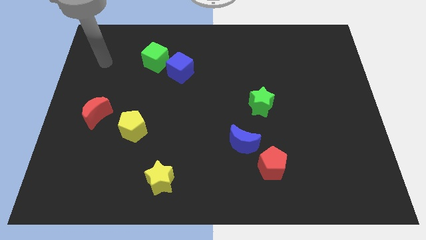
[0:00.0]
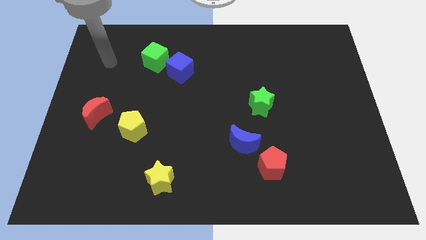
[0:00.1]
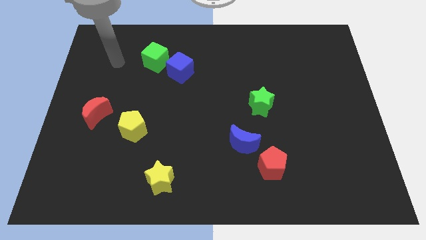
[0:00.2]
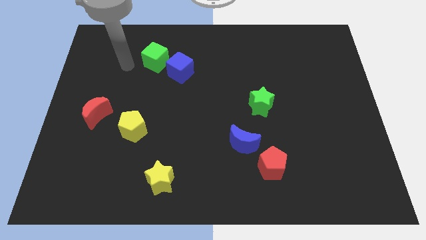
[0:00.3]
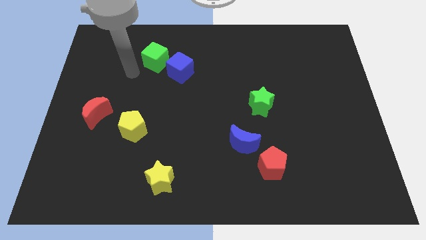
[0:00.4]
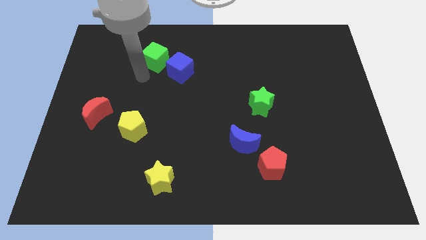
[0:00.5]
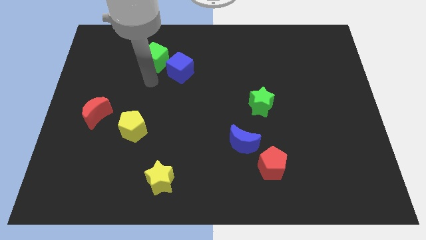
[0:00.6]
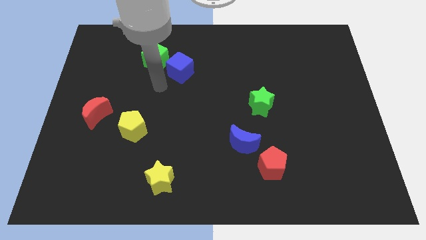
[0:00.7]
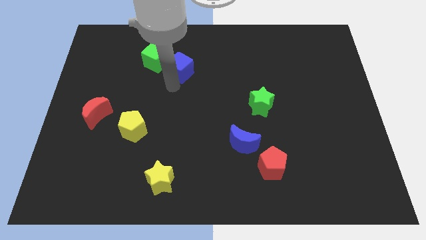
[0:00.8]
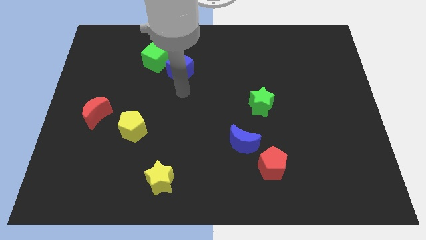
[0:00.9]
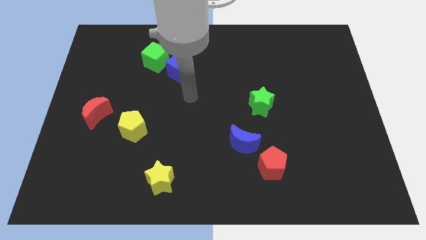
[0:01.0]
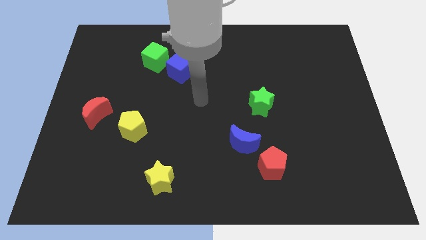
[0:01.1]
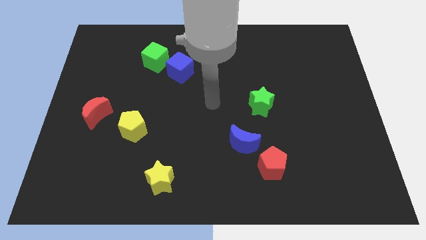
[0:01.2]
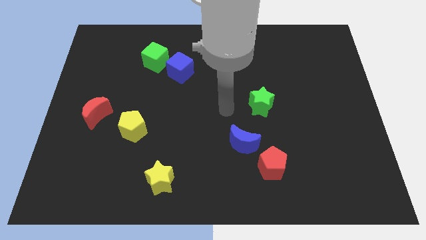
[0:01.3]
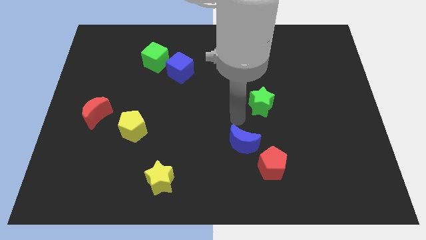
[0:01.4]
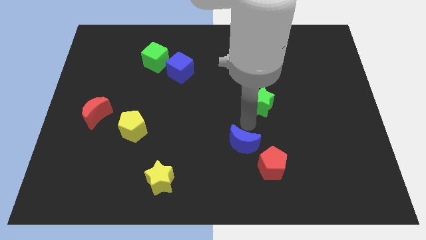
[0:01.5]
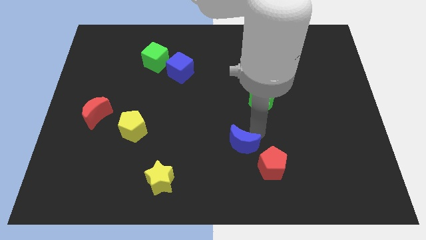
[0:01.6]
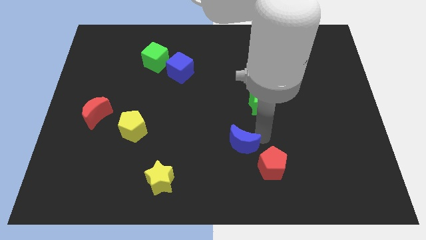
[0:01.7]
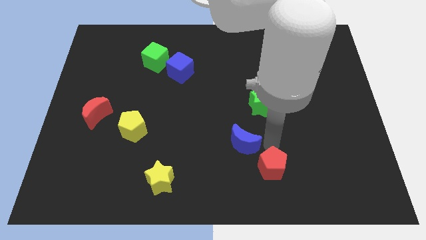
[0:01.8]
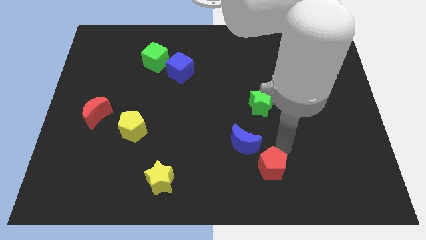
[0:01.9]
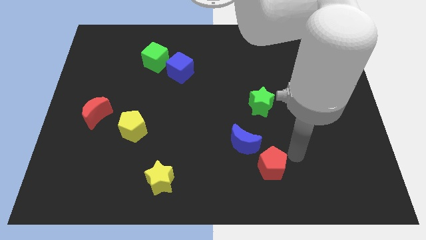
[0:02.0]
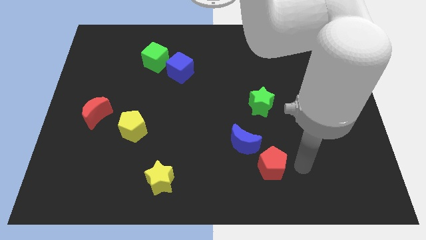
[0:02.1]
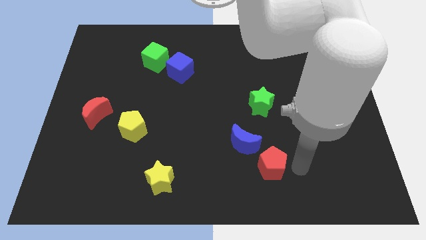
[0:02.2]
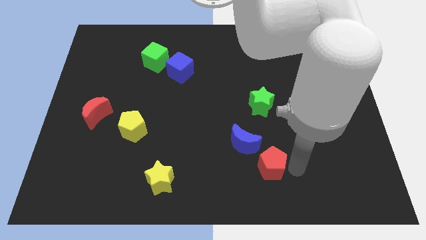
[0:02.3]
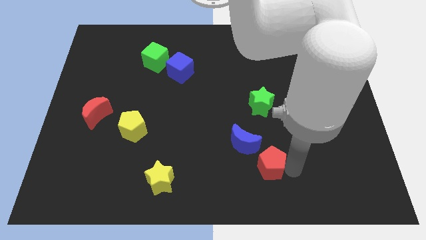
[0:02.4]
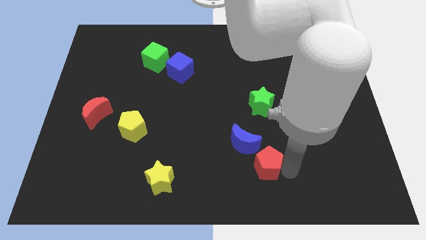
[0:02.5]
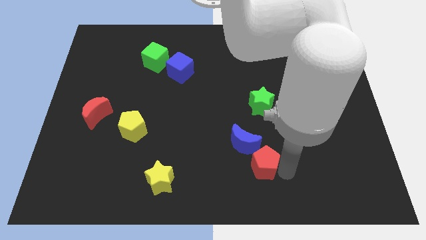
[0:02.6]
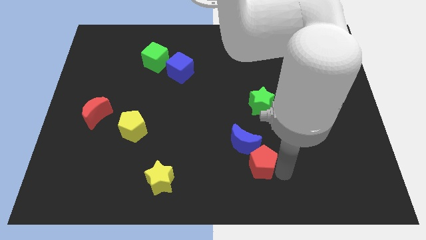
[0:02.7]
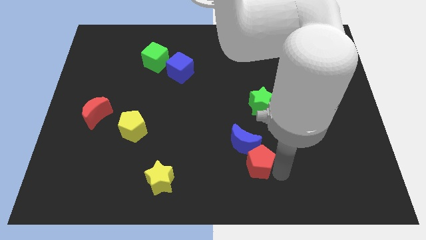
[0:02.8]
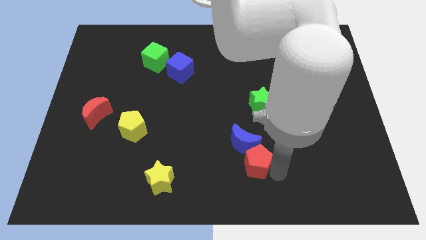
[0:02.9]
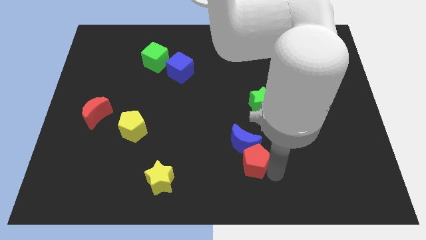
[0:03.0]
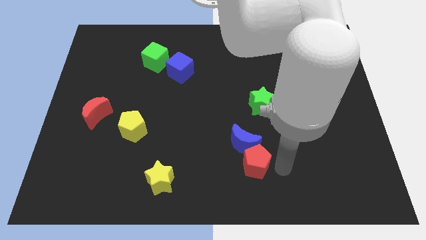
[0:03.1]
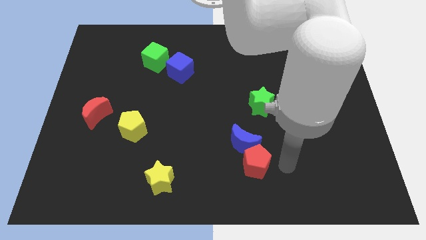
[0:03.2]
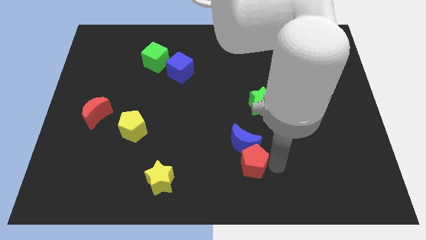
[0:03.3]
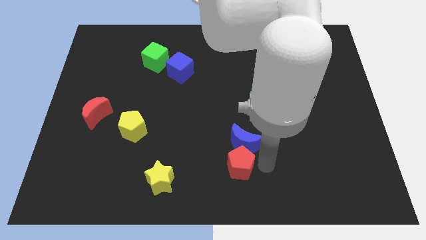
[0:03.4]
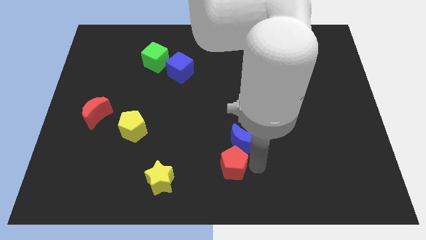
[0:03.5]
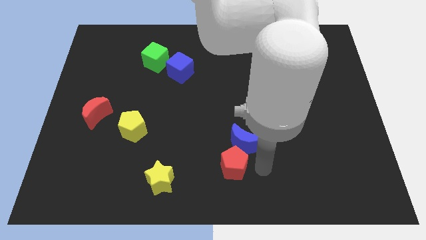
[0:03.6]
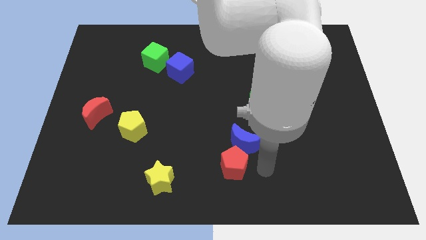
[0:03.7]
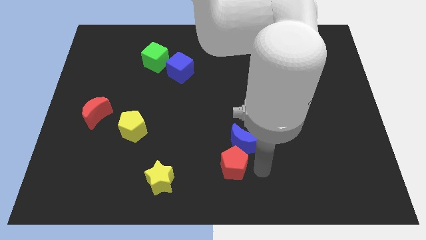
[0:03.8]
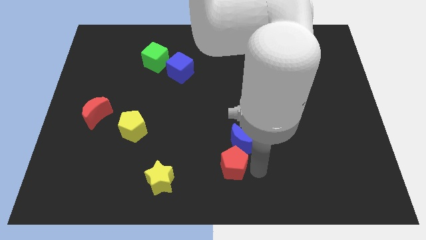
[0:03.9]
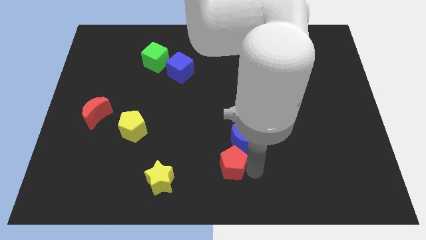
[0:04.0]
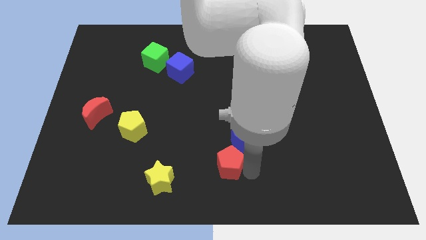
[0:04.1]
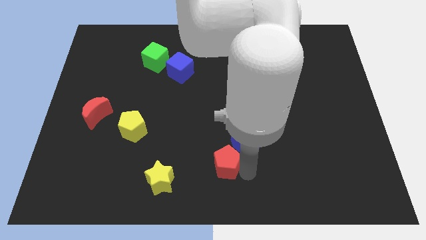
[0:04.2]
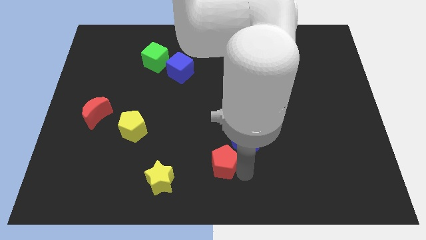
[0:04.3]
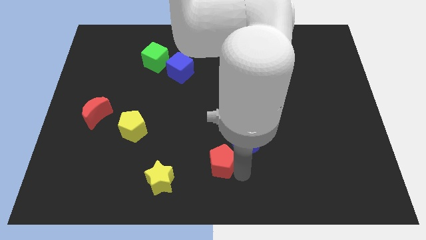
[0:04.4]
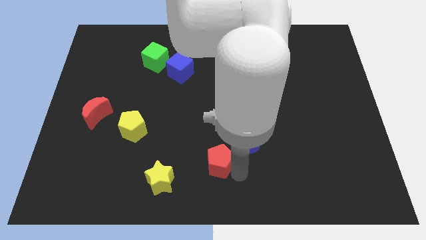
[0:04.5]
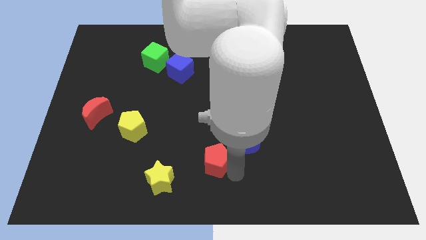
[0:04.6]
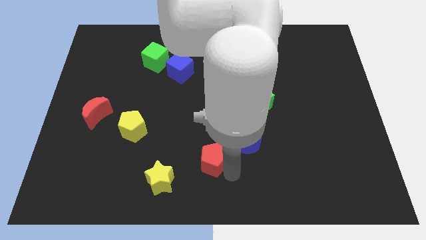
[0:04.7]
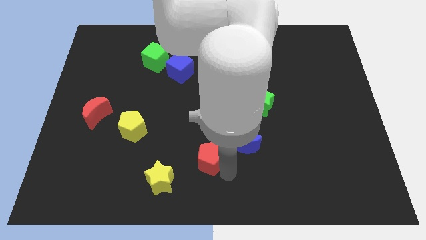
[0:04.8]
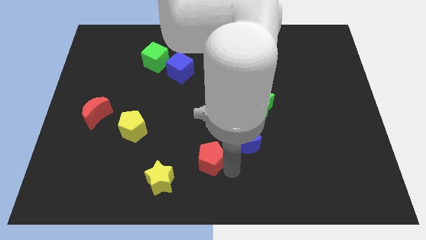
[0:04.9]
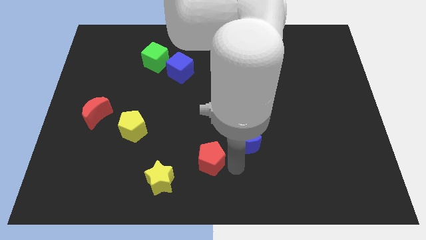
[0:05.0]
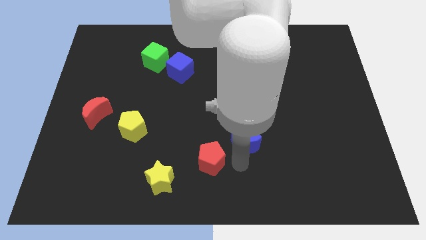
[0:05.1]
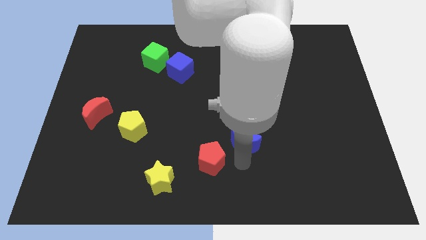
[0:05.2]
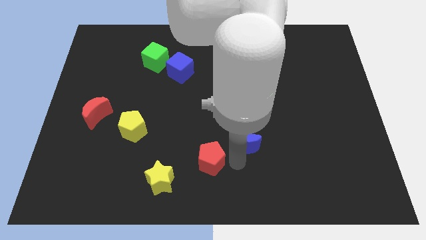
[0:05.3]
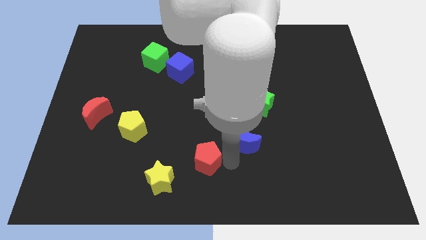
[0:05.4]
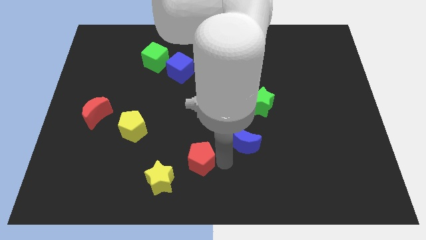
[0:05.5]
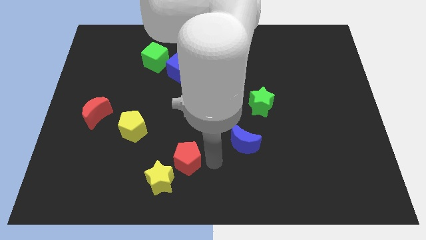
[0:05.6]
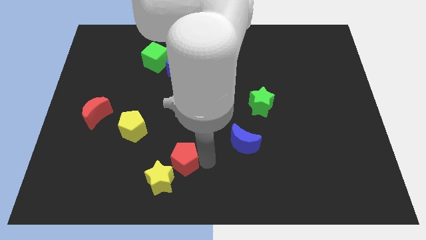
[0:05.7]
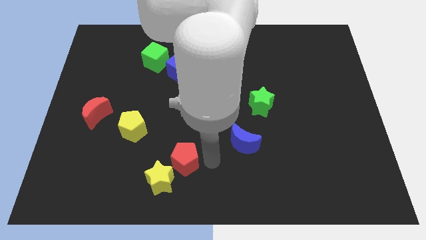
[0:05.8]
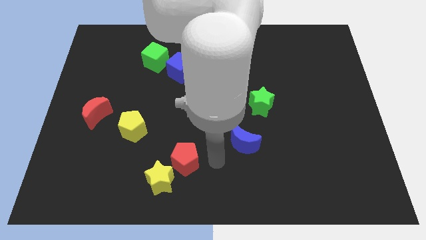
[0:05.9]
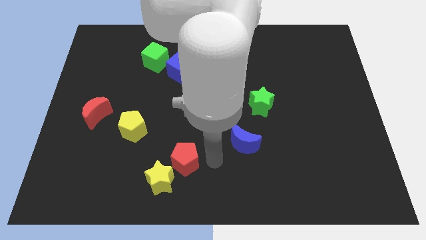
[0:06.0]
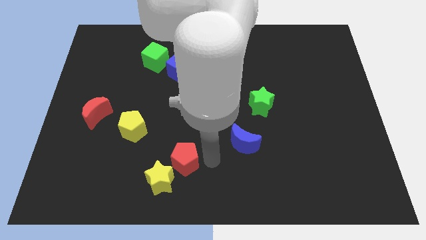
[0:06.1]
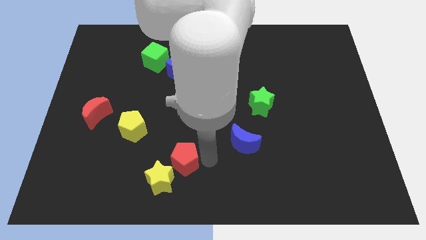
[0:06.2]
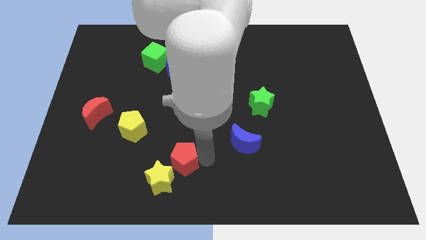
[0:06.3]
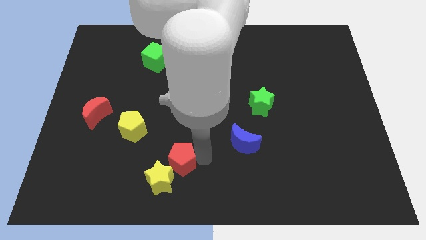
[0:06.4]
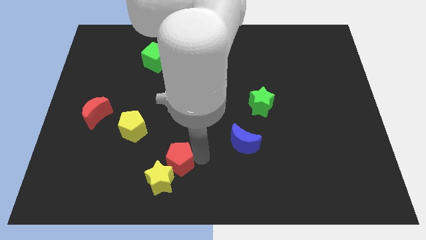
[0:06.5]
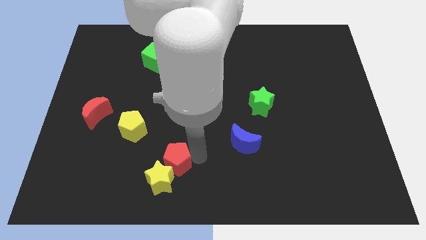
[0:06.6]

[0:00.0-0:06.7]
slide the red pentagon left

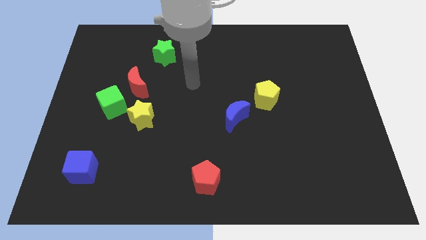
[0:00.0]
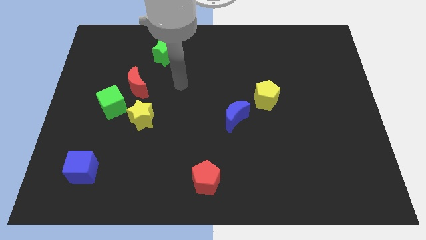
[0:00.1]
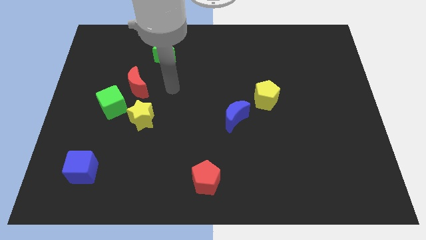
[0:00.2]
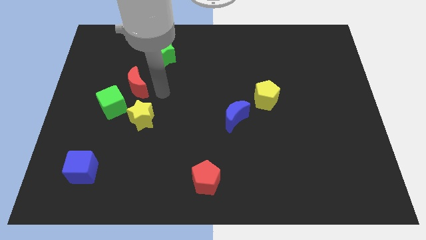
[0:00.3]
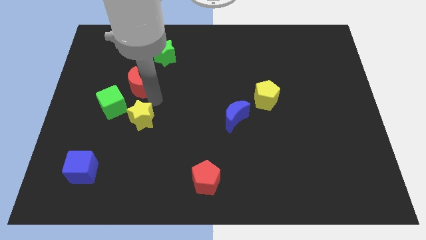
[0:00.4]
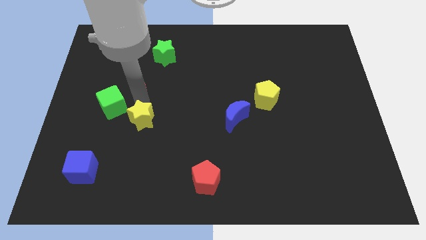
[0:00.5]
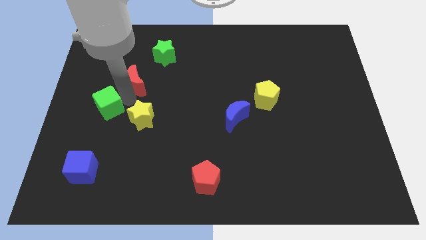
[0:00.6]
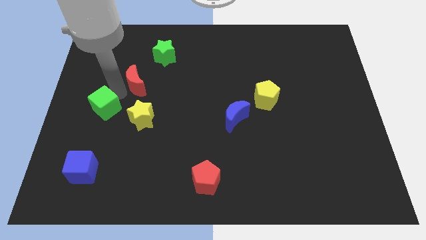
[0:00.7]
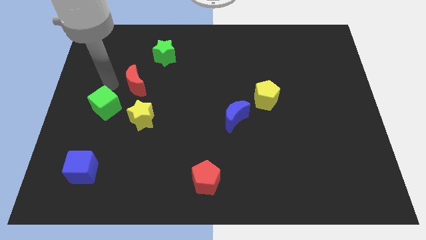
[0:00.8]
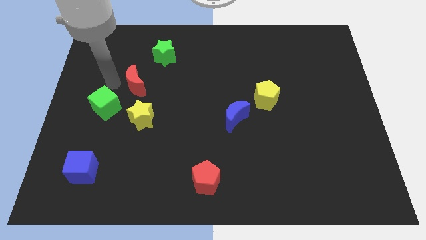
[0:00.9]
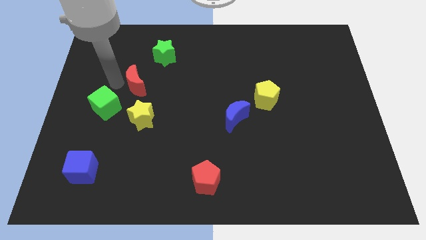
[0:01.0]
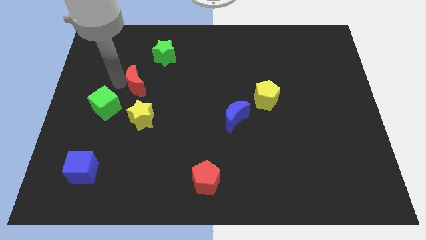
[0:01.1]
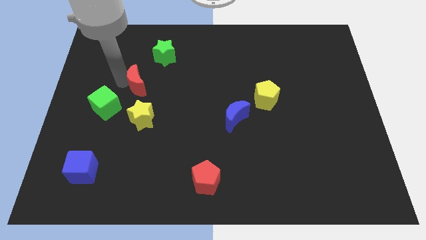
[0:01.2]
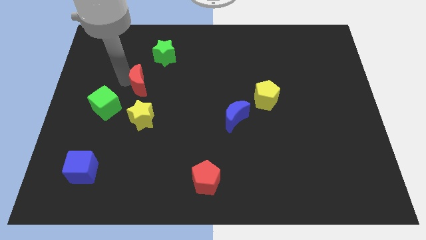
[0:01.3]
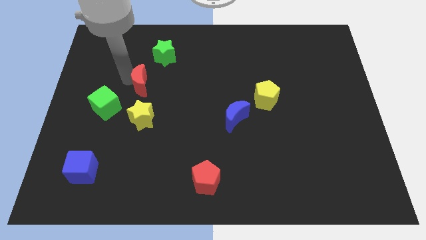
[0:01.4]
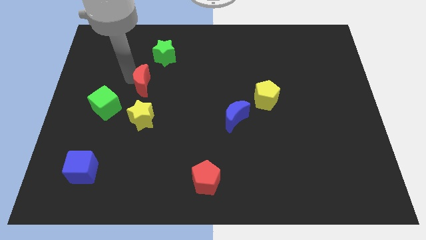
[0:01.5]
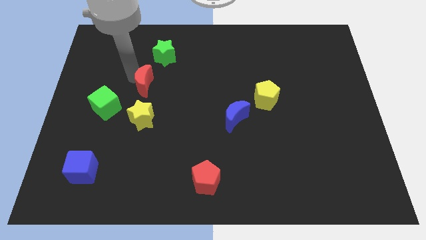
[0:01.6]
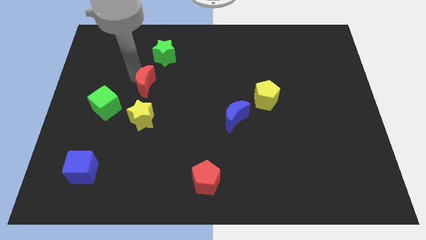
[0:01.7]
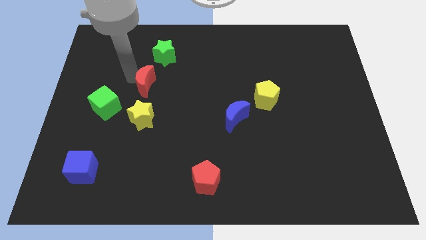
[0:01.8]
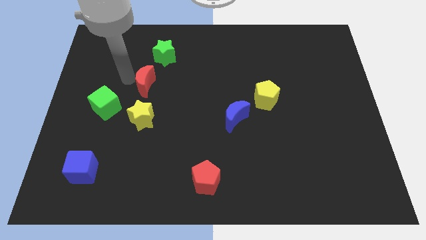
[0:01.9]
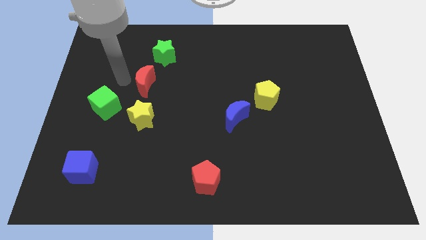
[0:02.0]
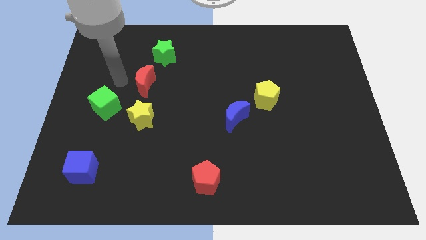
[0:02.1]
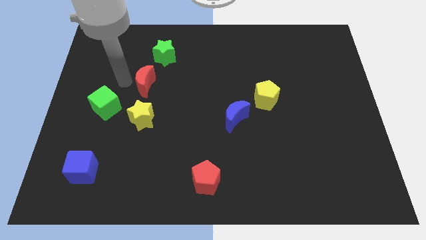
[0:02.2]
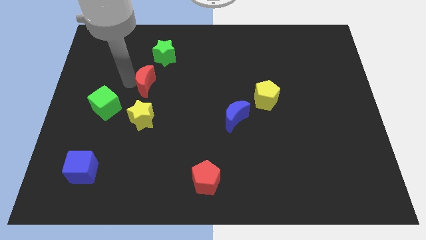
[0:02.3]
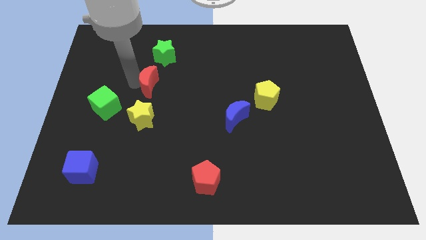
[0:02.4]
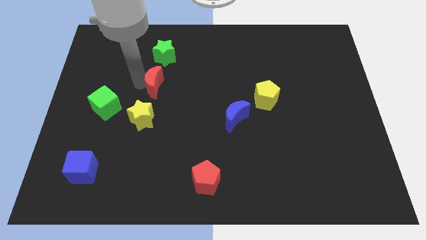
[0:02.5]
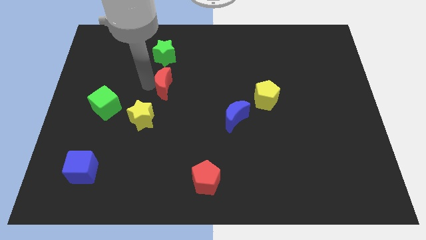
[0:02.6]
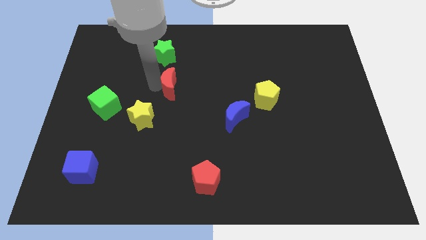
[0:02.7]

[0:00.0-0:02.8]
slide the red moon right a bit
